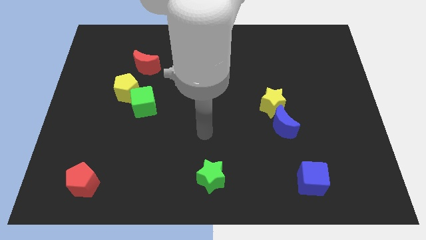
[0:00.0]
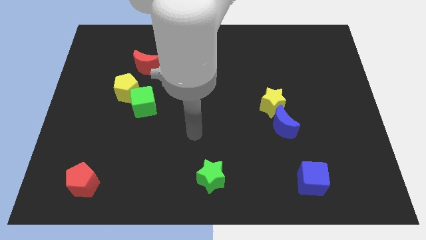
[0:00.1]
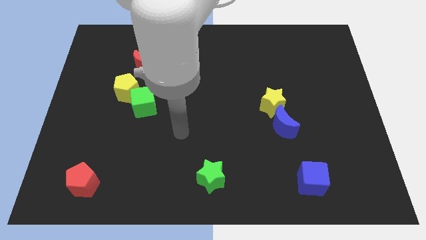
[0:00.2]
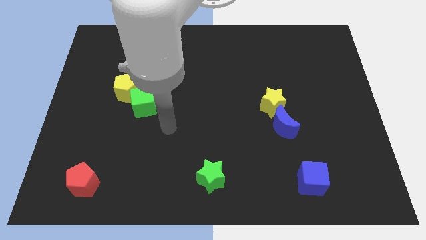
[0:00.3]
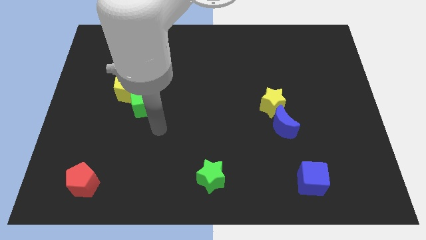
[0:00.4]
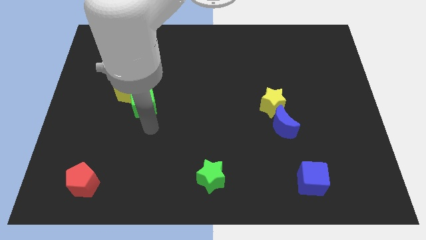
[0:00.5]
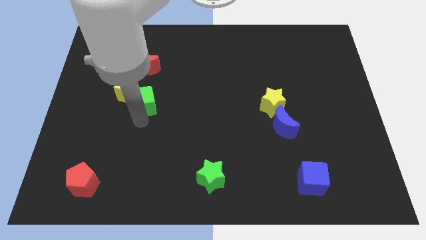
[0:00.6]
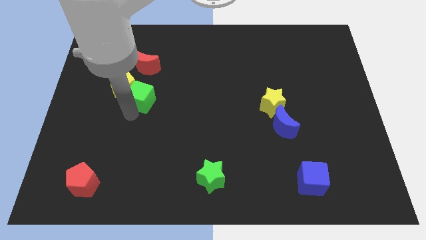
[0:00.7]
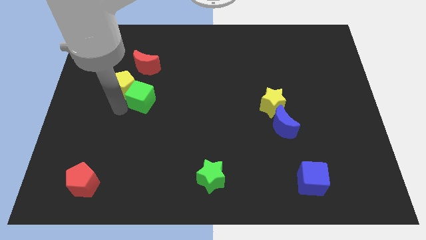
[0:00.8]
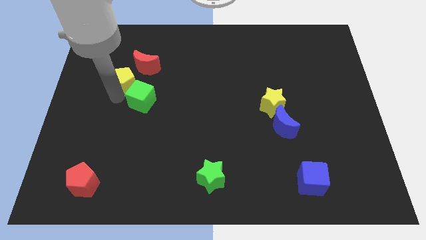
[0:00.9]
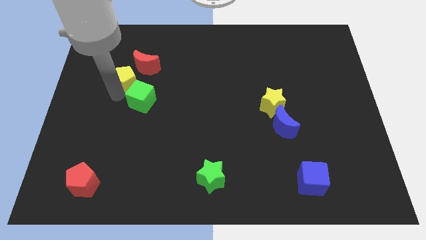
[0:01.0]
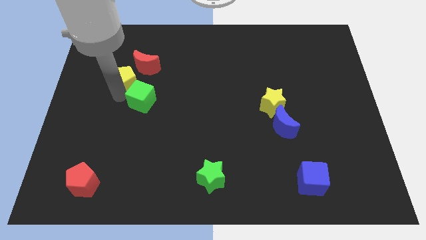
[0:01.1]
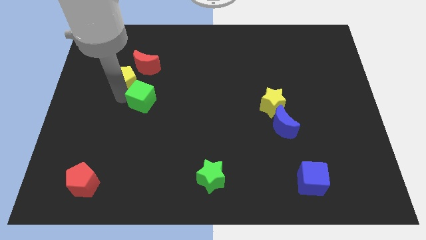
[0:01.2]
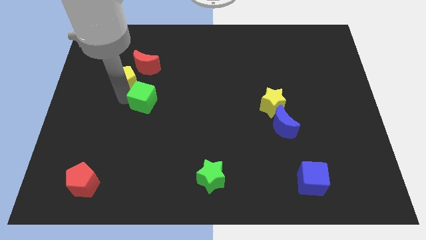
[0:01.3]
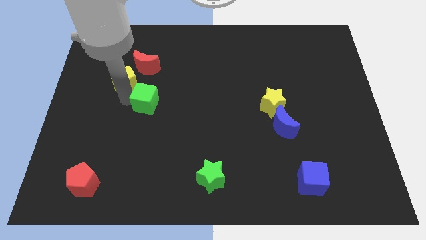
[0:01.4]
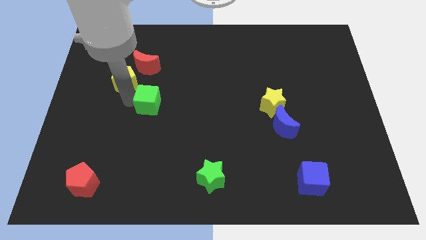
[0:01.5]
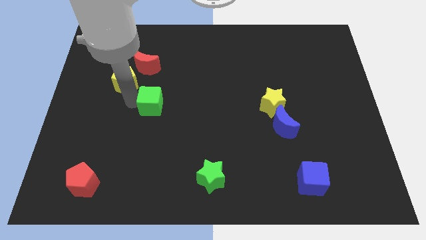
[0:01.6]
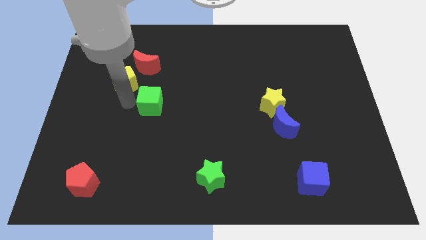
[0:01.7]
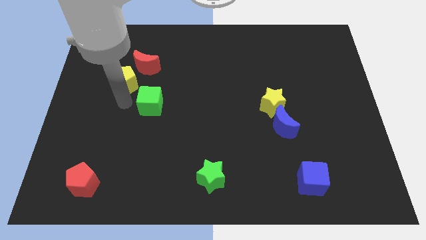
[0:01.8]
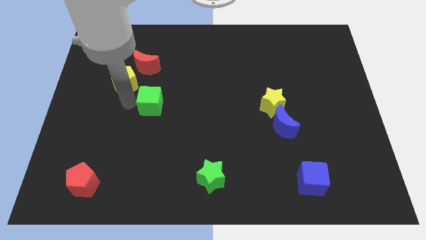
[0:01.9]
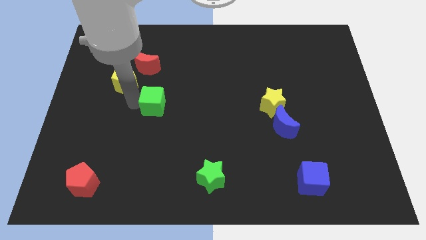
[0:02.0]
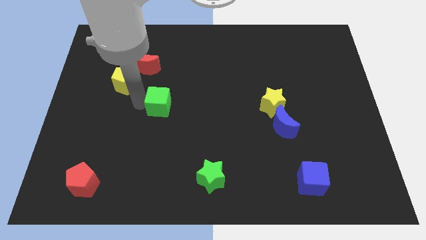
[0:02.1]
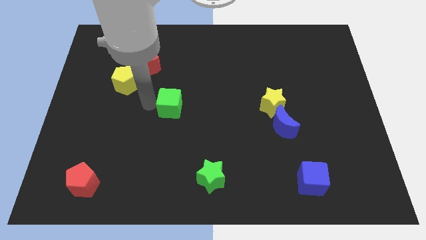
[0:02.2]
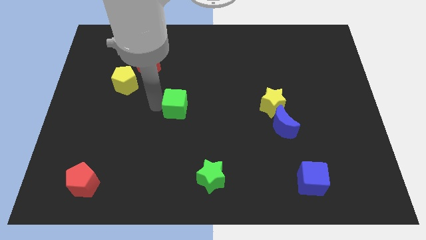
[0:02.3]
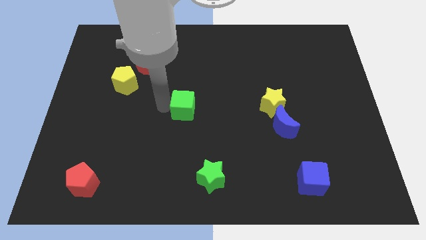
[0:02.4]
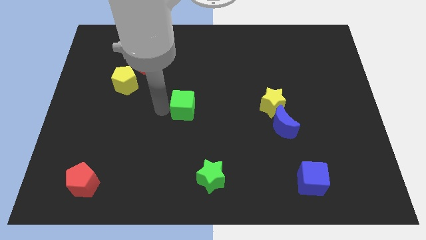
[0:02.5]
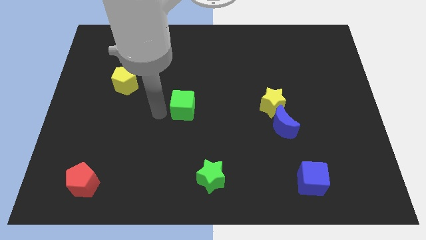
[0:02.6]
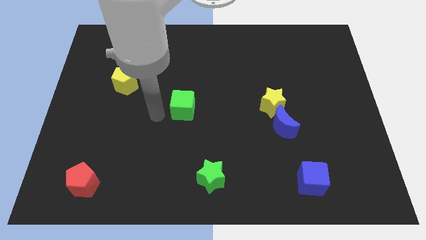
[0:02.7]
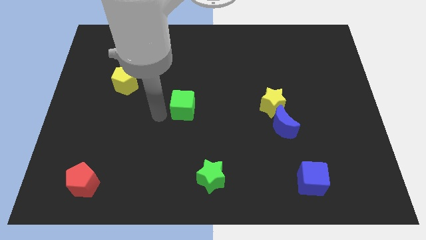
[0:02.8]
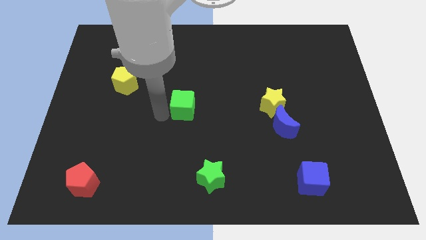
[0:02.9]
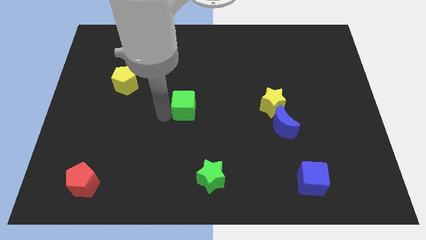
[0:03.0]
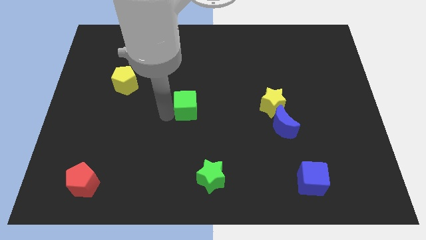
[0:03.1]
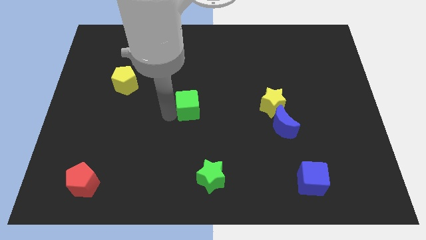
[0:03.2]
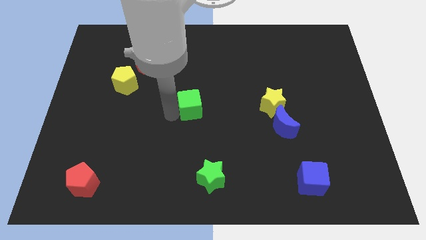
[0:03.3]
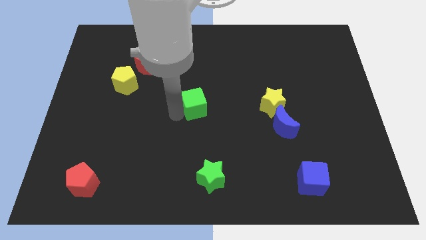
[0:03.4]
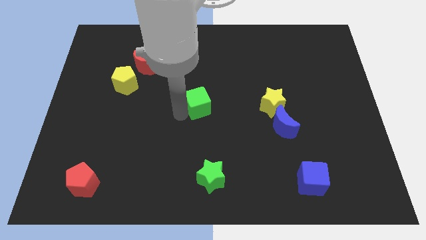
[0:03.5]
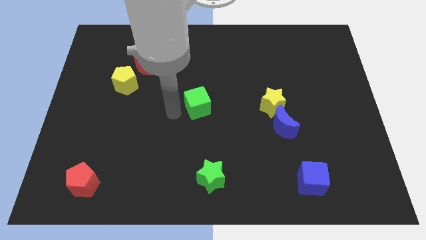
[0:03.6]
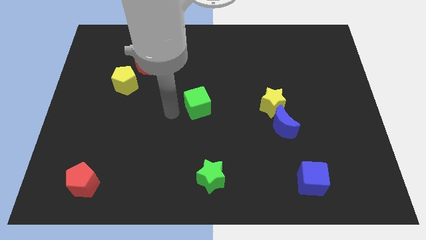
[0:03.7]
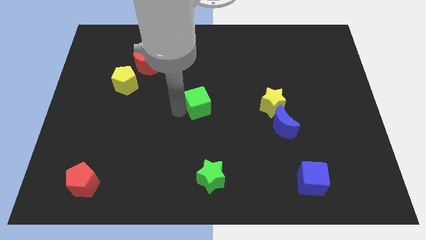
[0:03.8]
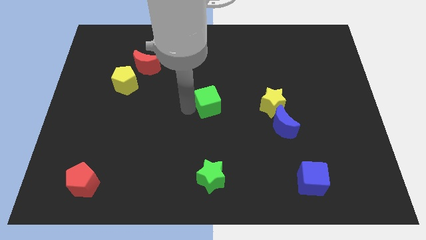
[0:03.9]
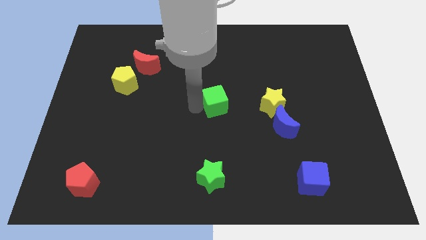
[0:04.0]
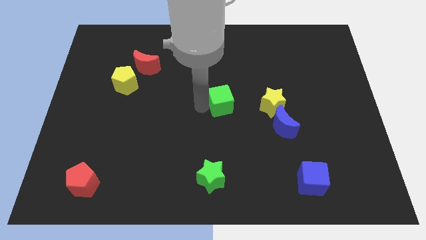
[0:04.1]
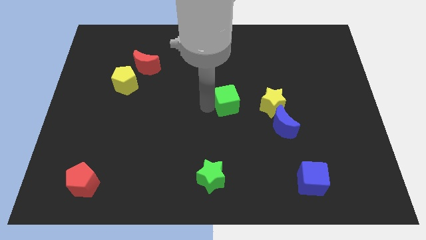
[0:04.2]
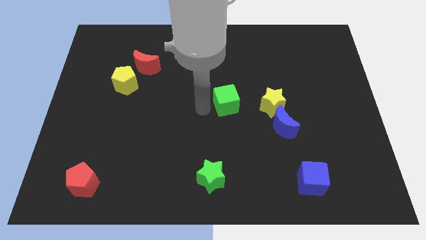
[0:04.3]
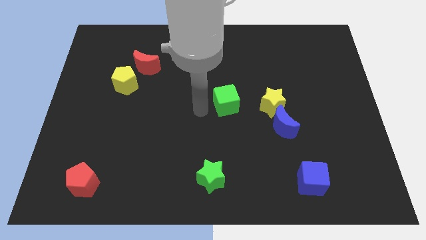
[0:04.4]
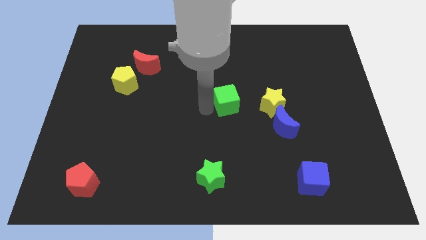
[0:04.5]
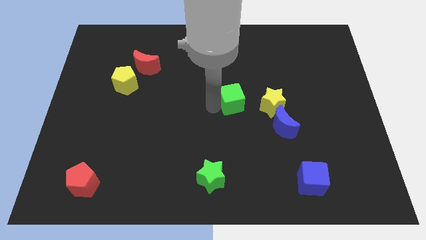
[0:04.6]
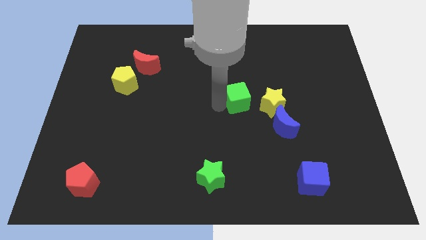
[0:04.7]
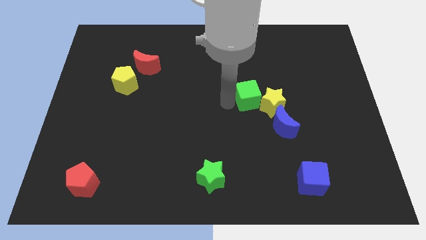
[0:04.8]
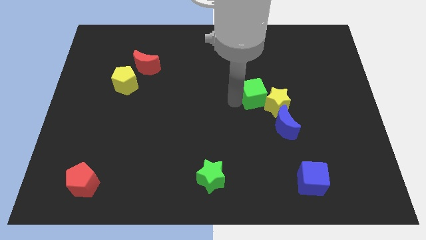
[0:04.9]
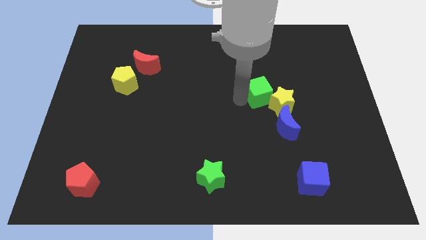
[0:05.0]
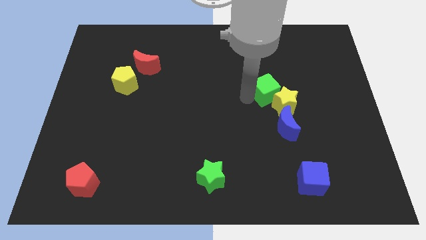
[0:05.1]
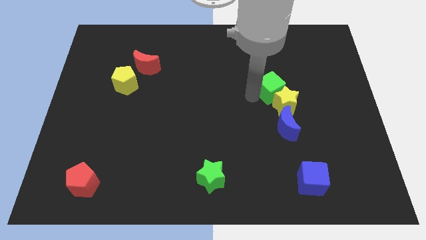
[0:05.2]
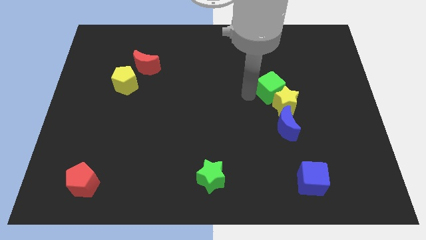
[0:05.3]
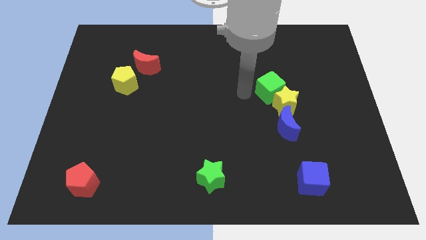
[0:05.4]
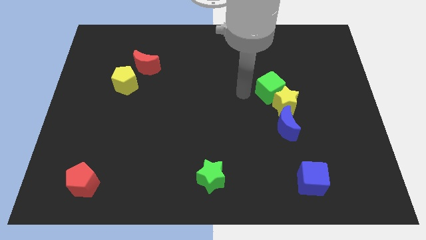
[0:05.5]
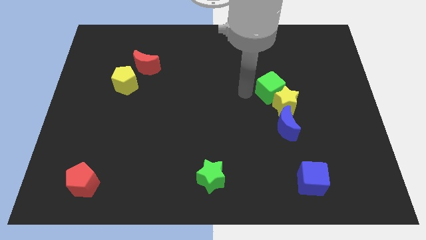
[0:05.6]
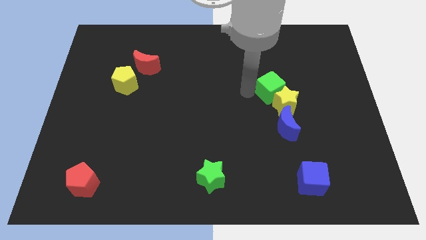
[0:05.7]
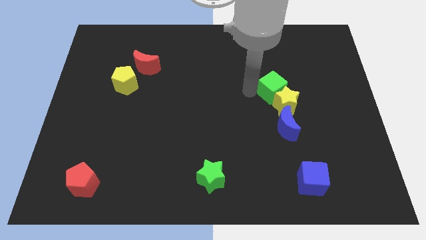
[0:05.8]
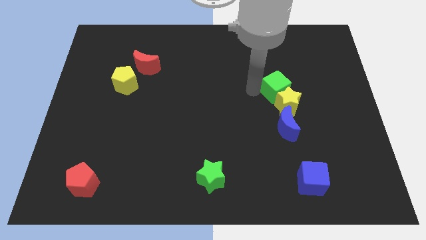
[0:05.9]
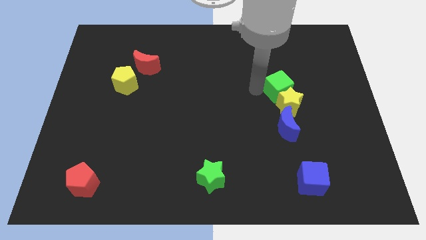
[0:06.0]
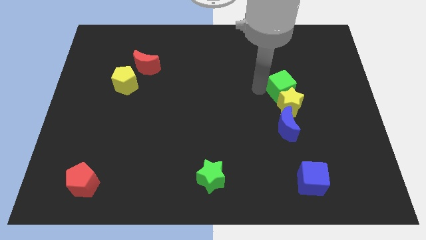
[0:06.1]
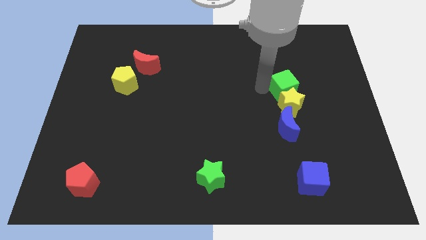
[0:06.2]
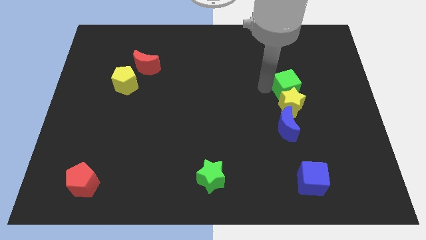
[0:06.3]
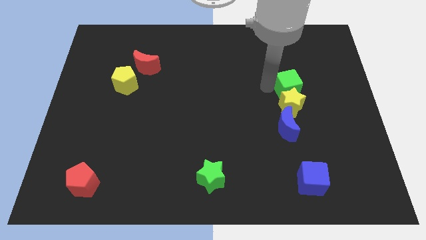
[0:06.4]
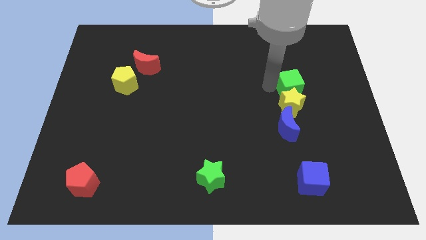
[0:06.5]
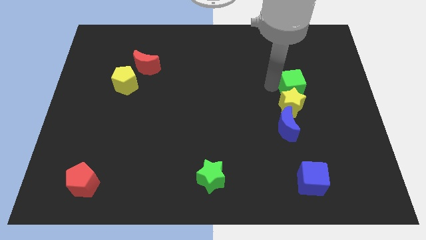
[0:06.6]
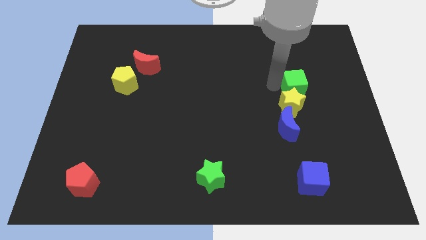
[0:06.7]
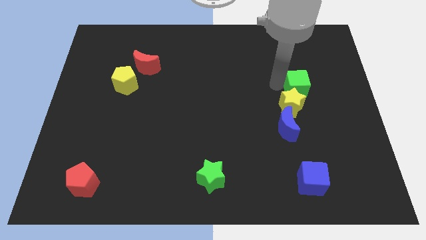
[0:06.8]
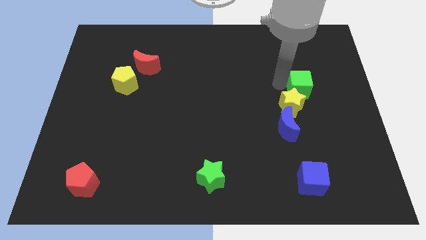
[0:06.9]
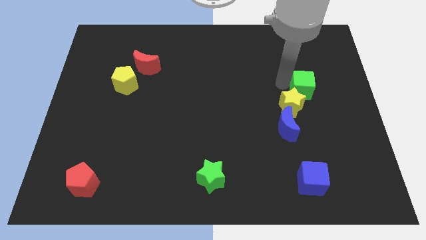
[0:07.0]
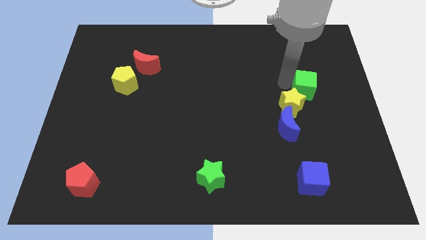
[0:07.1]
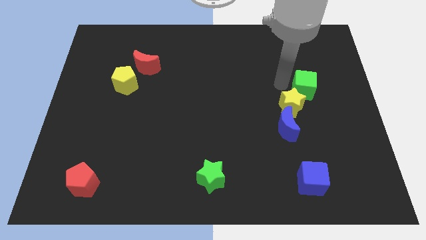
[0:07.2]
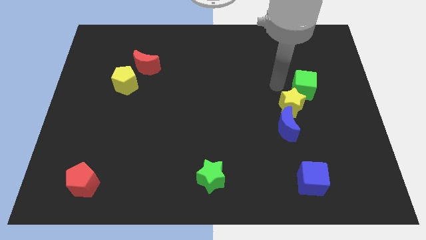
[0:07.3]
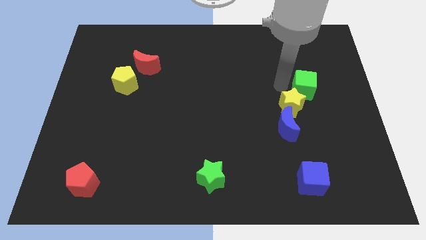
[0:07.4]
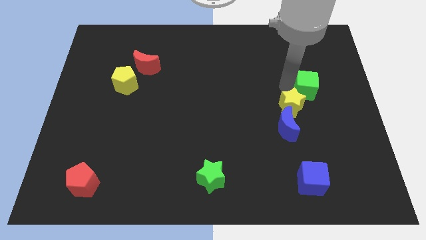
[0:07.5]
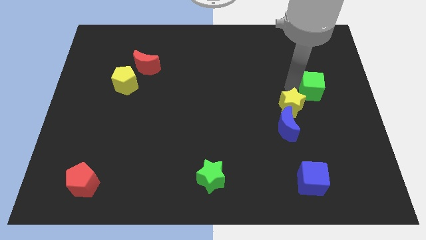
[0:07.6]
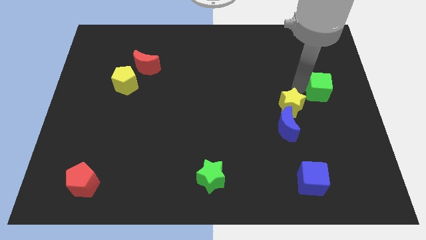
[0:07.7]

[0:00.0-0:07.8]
push the green cube to the center right
